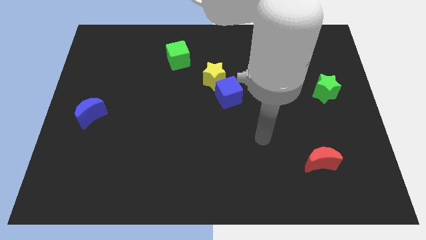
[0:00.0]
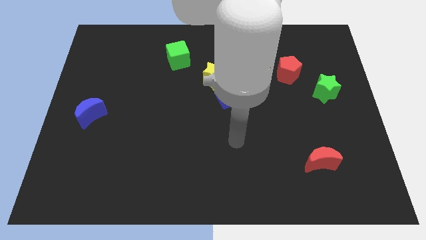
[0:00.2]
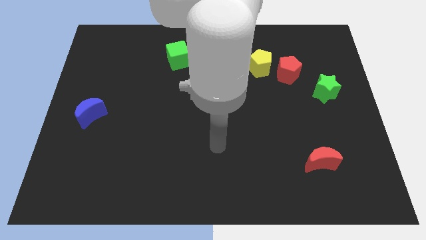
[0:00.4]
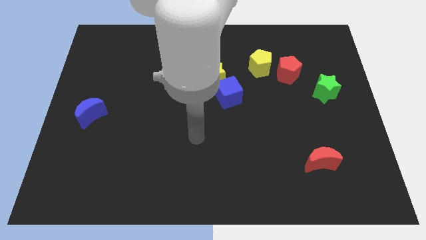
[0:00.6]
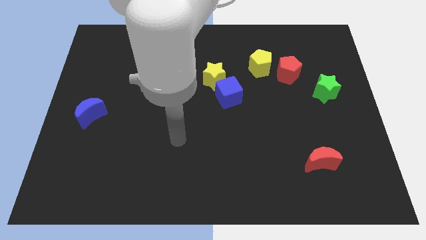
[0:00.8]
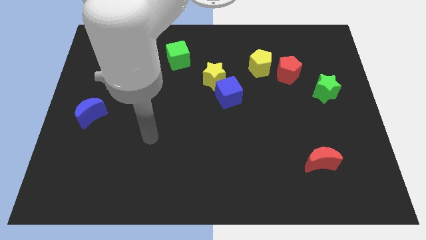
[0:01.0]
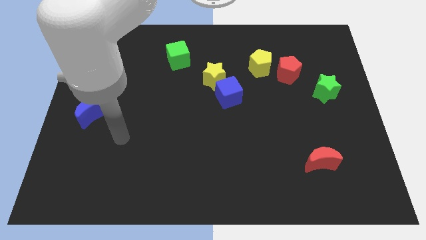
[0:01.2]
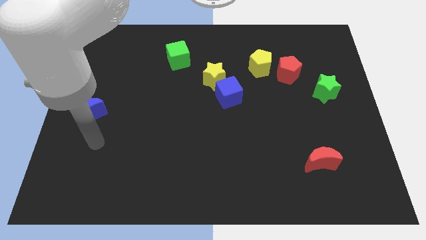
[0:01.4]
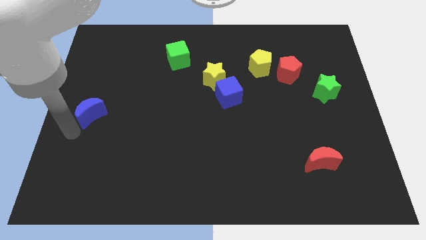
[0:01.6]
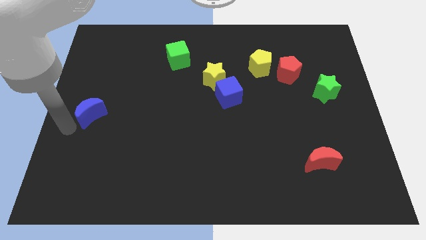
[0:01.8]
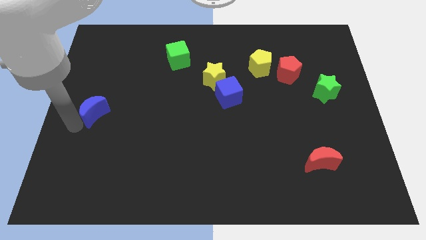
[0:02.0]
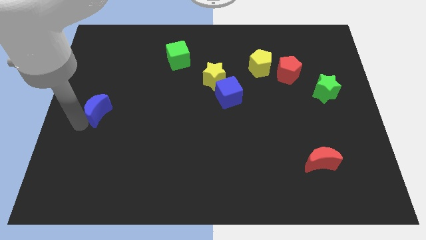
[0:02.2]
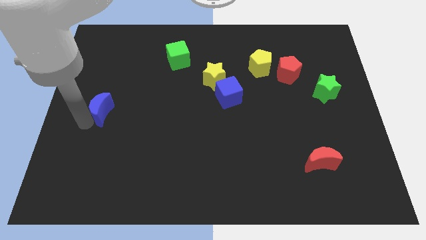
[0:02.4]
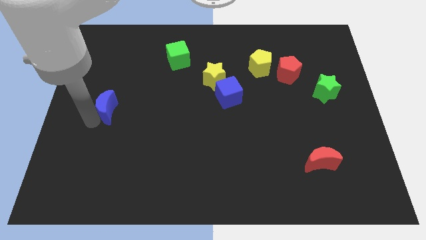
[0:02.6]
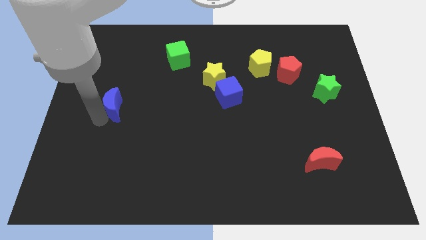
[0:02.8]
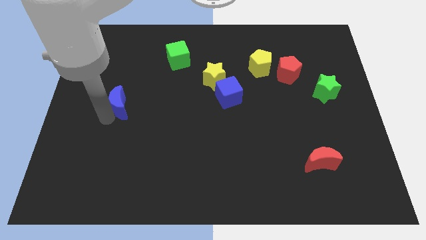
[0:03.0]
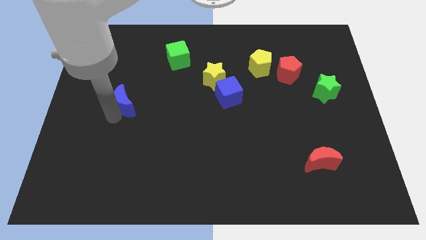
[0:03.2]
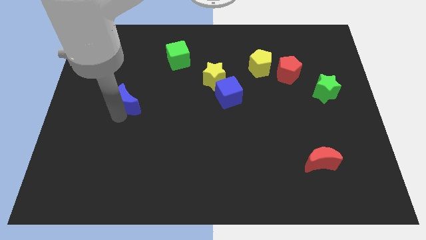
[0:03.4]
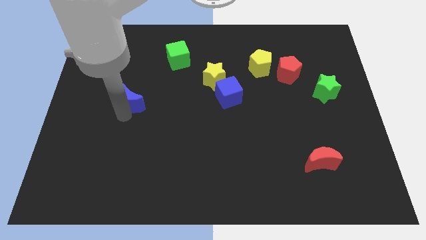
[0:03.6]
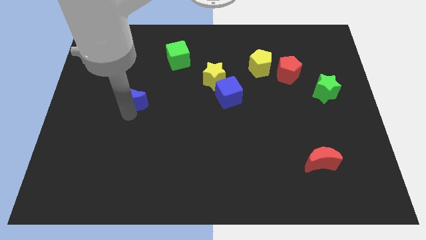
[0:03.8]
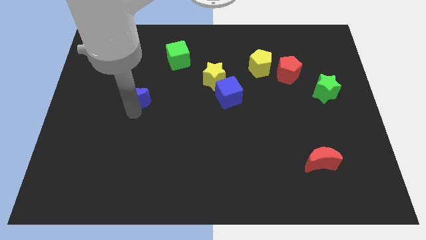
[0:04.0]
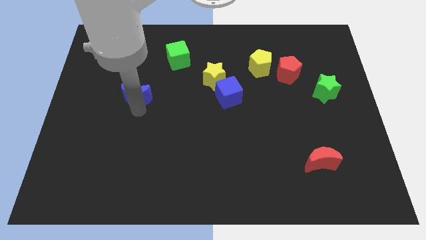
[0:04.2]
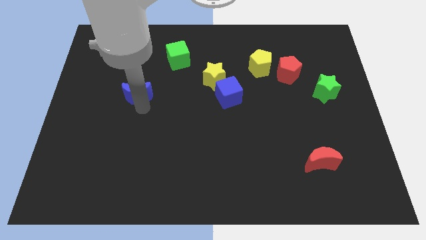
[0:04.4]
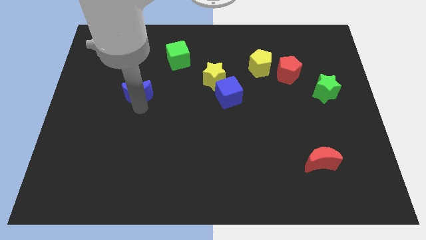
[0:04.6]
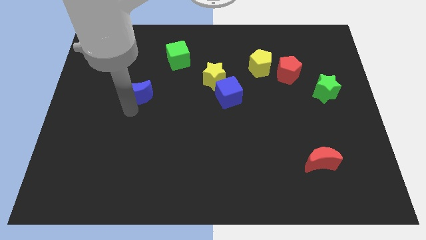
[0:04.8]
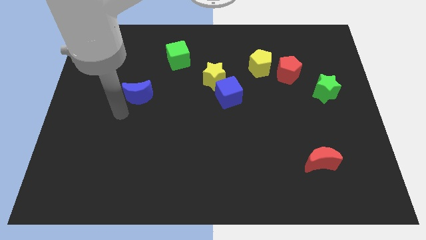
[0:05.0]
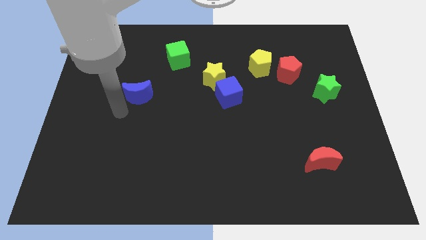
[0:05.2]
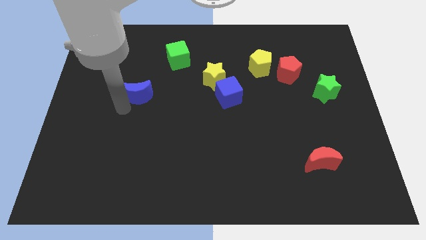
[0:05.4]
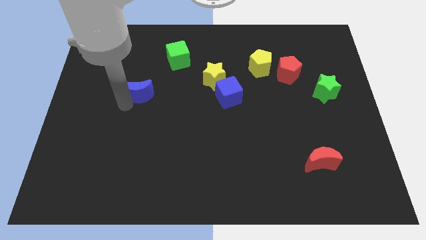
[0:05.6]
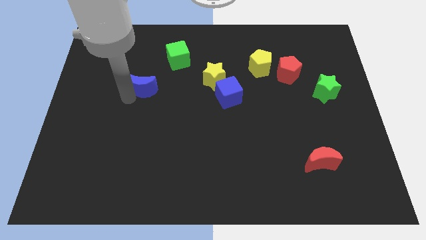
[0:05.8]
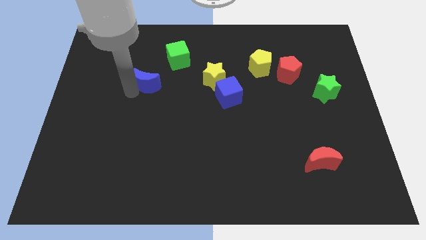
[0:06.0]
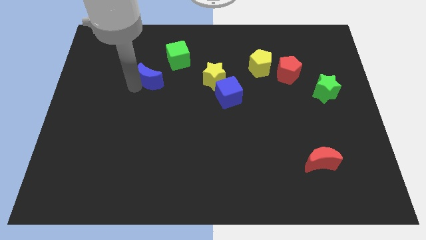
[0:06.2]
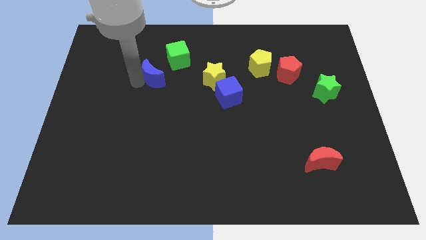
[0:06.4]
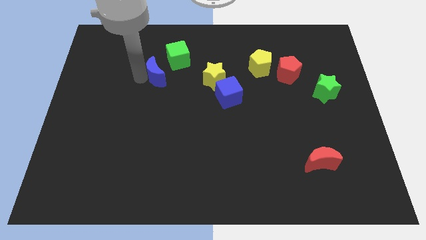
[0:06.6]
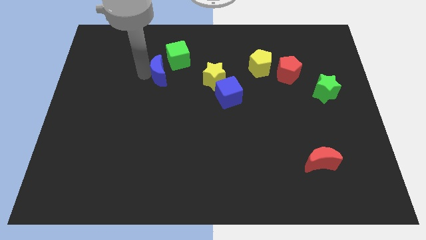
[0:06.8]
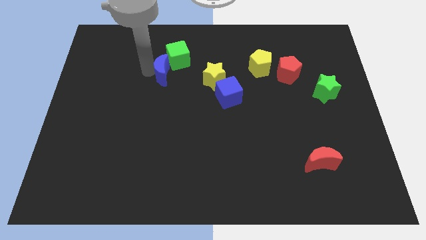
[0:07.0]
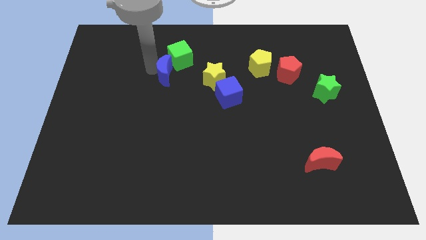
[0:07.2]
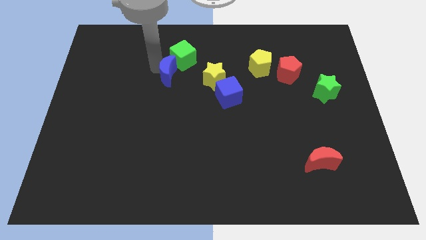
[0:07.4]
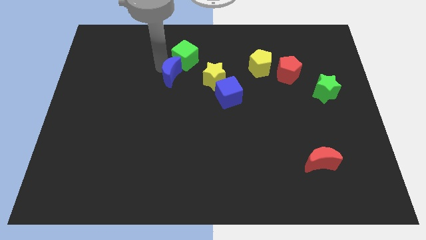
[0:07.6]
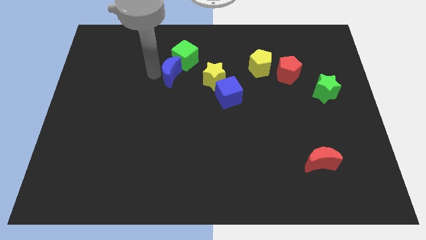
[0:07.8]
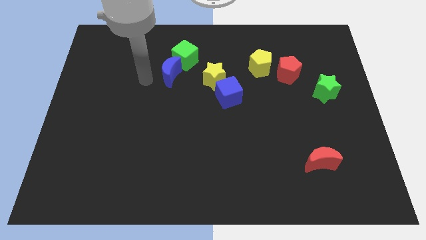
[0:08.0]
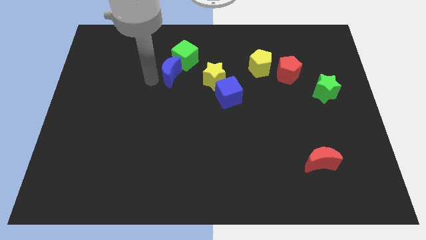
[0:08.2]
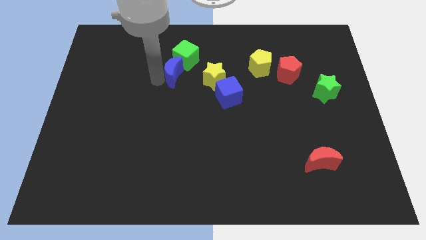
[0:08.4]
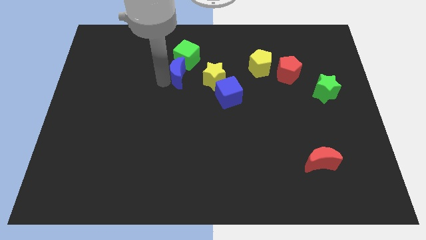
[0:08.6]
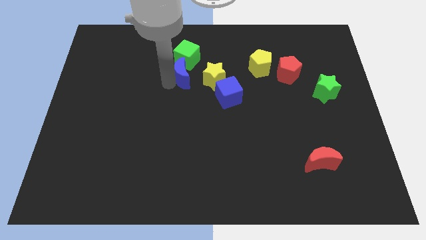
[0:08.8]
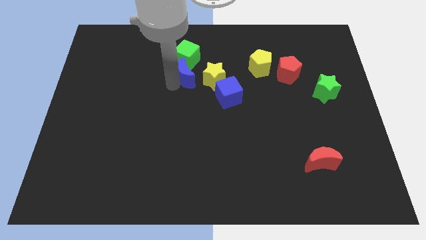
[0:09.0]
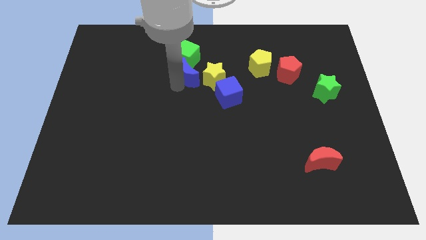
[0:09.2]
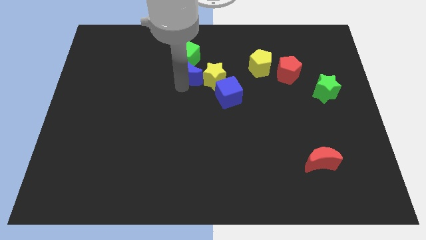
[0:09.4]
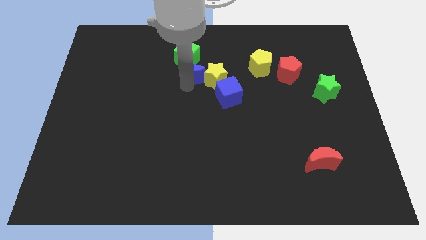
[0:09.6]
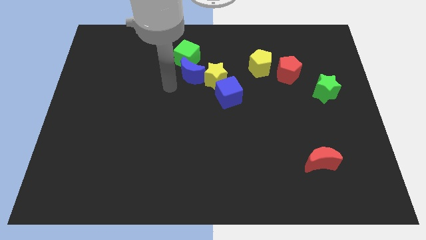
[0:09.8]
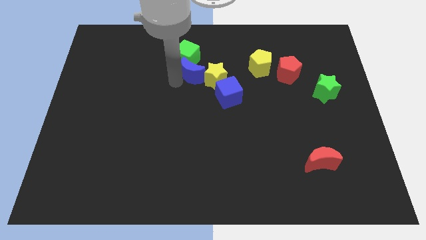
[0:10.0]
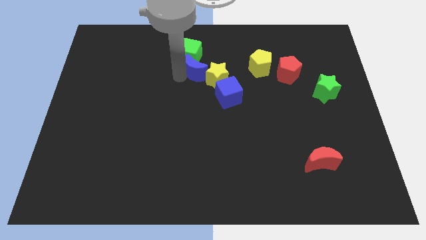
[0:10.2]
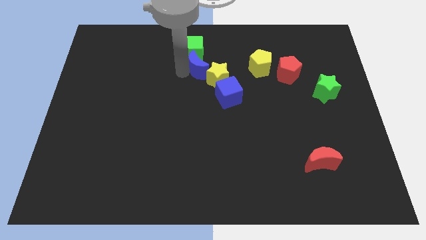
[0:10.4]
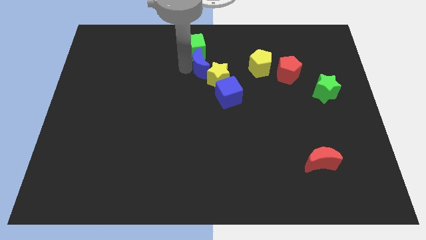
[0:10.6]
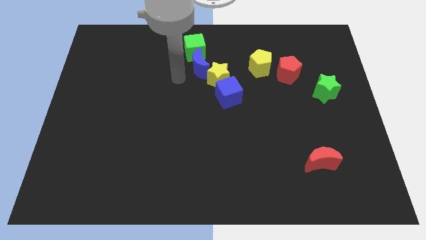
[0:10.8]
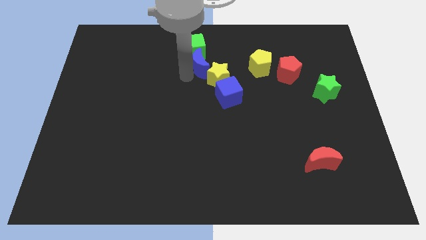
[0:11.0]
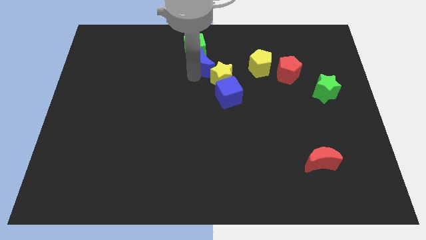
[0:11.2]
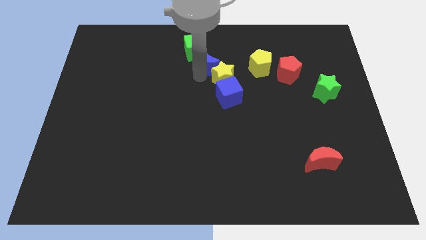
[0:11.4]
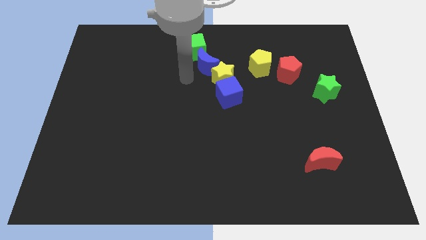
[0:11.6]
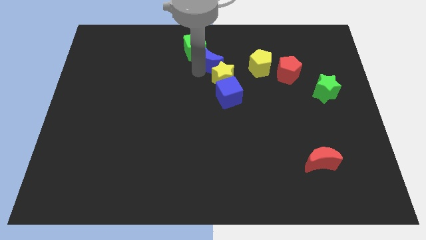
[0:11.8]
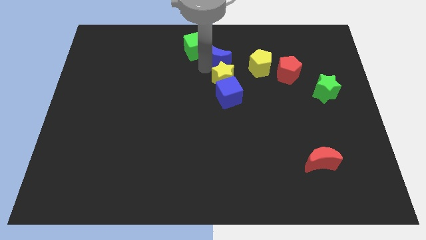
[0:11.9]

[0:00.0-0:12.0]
move the blue moon right of the green cube

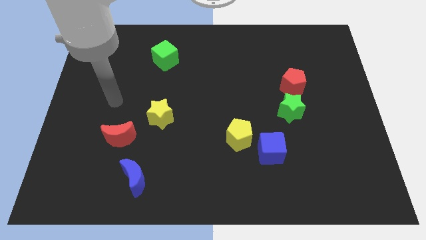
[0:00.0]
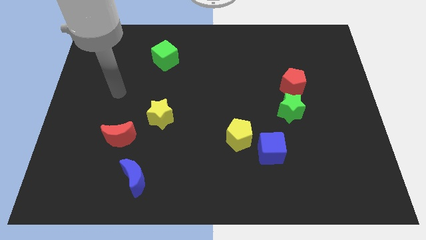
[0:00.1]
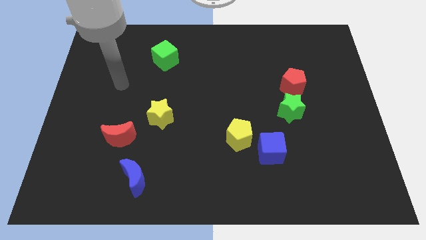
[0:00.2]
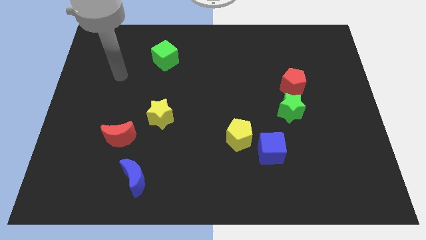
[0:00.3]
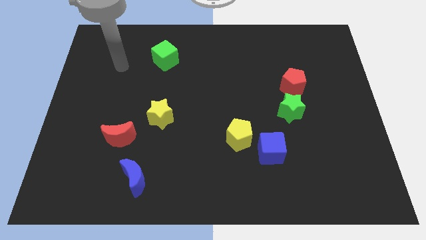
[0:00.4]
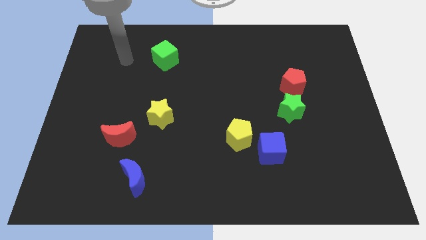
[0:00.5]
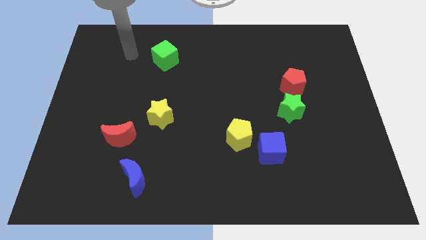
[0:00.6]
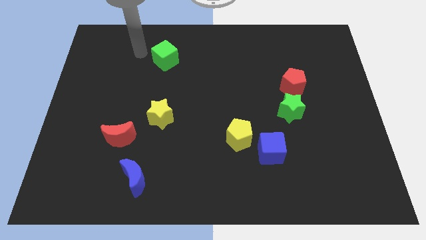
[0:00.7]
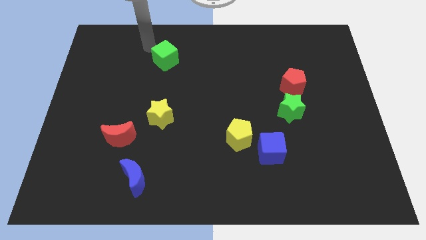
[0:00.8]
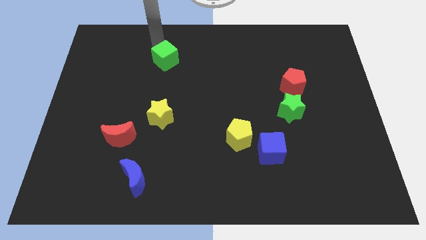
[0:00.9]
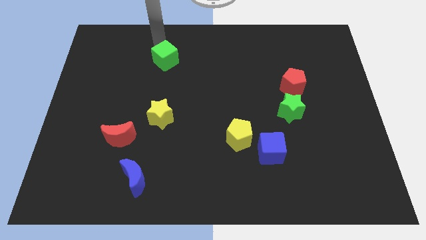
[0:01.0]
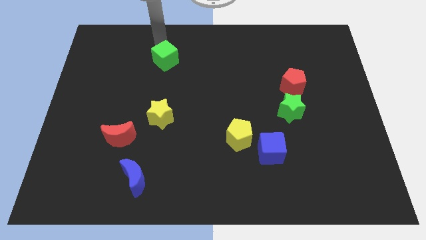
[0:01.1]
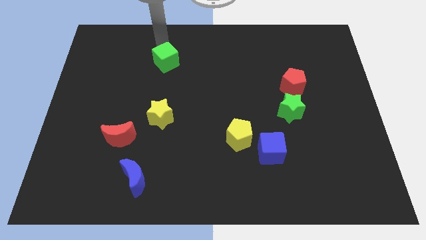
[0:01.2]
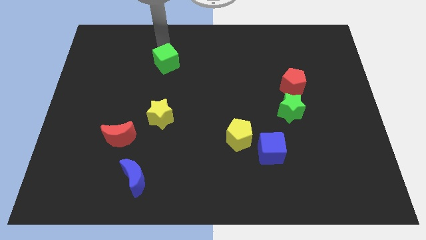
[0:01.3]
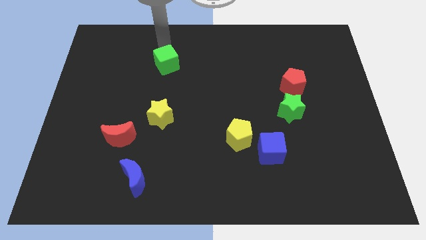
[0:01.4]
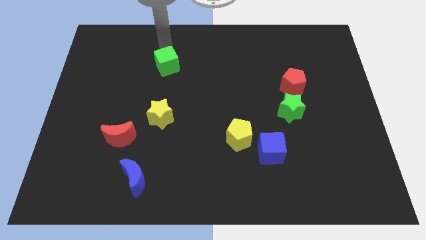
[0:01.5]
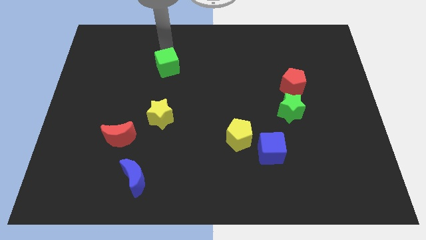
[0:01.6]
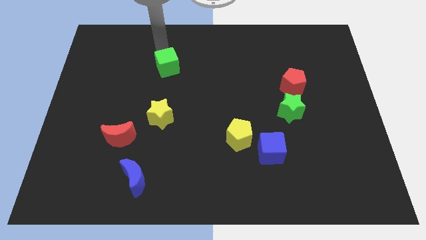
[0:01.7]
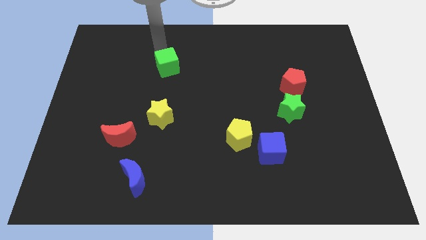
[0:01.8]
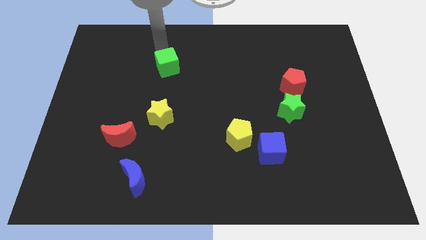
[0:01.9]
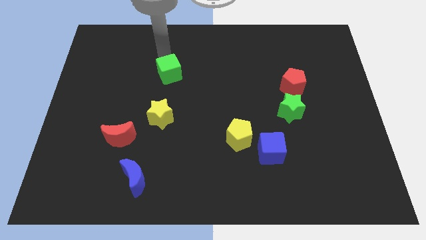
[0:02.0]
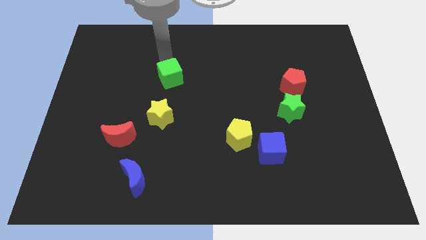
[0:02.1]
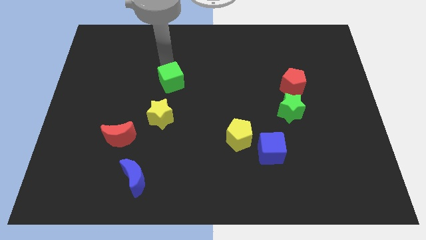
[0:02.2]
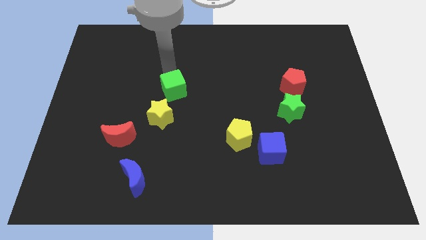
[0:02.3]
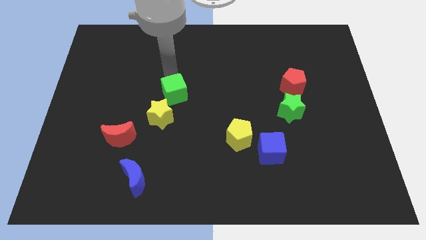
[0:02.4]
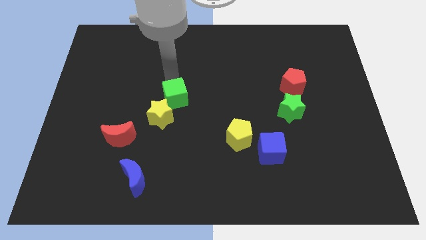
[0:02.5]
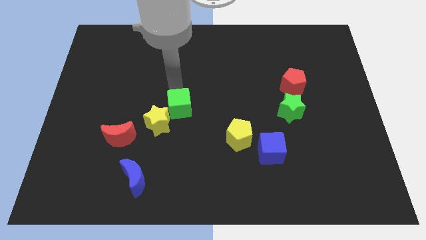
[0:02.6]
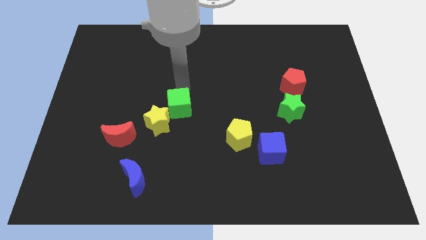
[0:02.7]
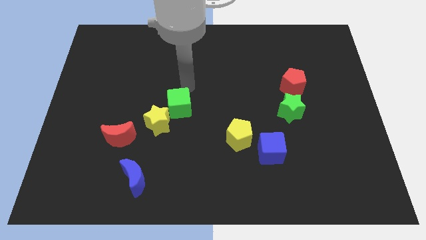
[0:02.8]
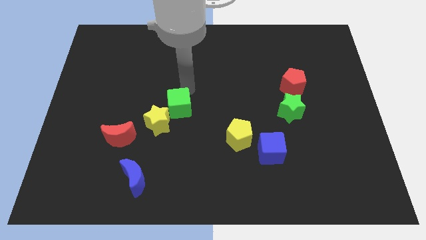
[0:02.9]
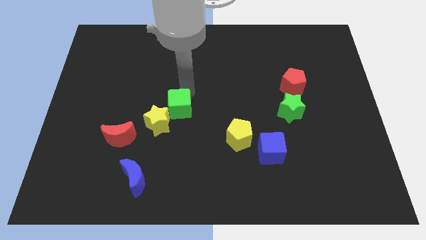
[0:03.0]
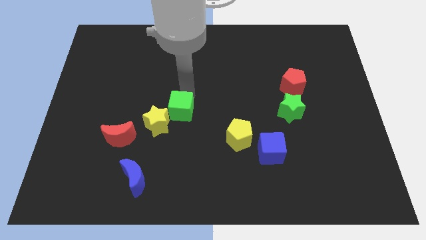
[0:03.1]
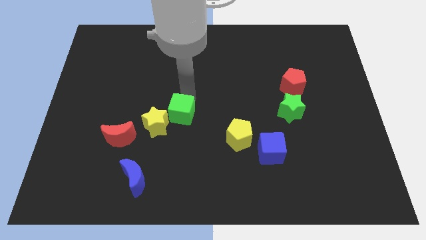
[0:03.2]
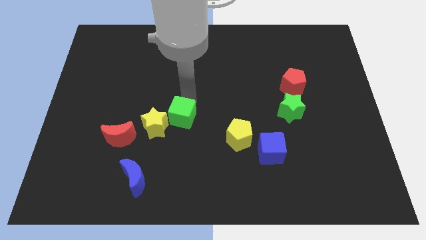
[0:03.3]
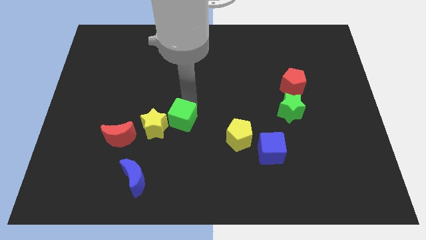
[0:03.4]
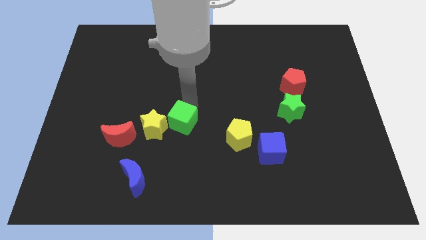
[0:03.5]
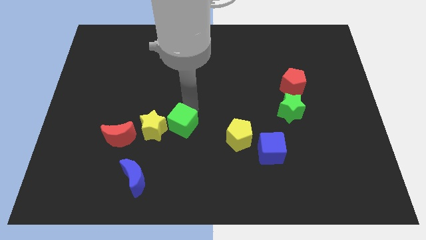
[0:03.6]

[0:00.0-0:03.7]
move the green cube to the right side of the red moon
